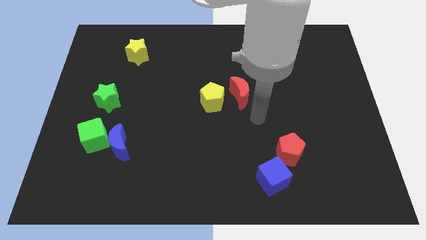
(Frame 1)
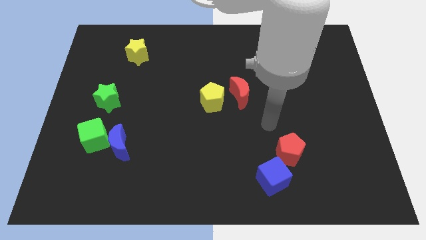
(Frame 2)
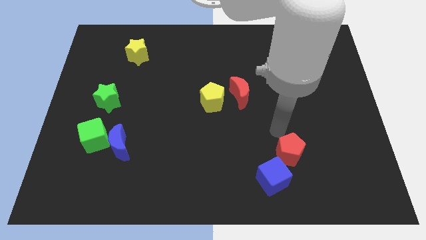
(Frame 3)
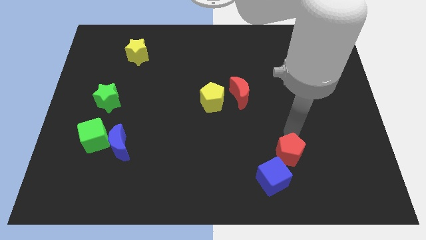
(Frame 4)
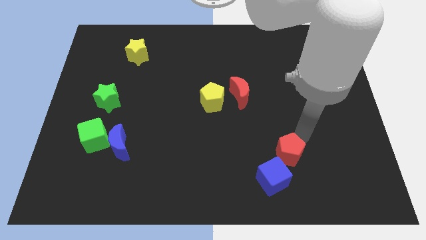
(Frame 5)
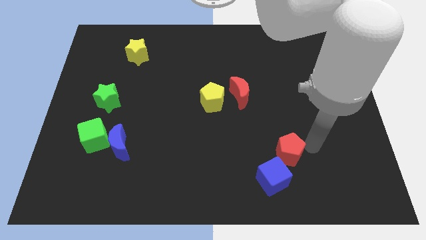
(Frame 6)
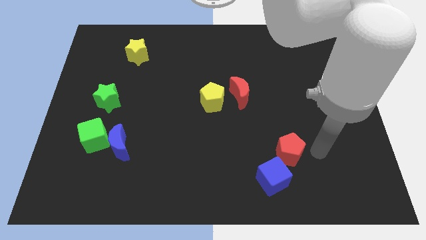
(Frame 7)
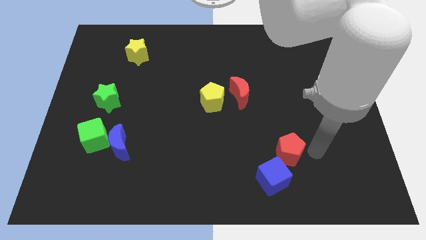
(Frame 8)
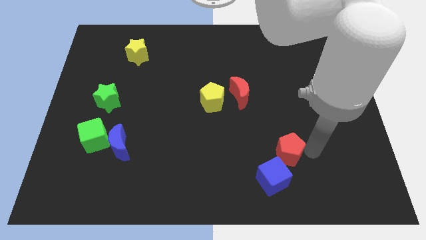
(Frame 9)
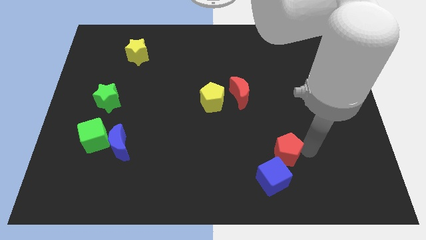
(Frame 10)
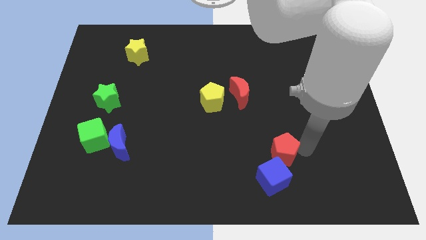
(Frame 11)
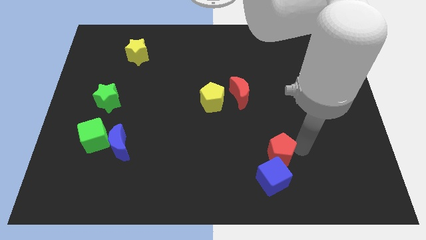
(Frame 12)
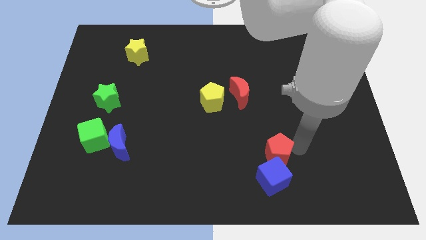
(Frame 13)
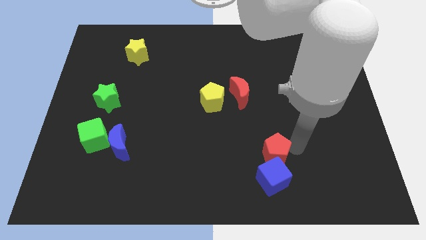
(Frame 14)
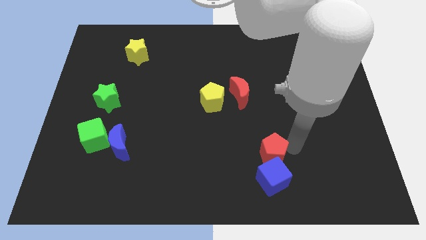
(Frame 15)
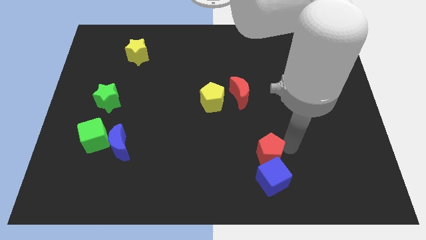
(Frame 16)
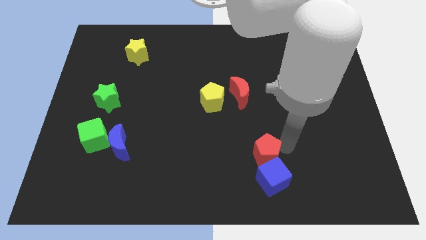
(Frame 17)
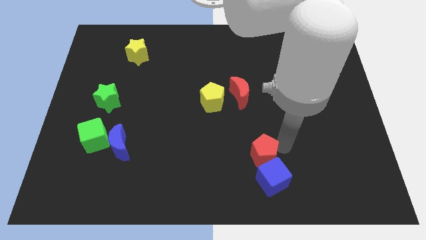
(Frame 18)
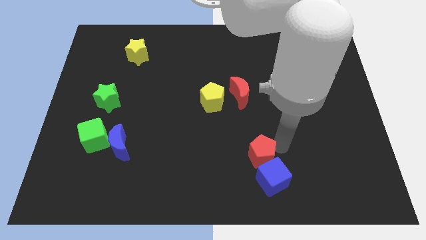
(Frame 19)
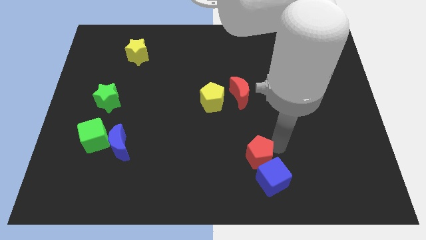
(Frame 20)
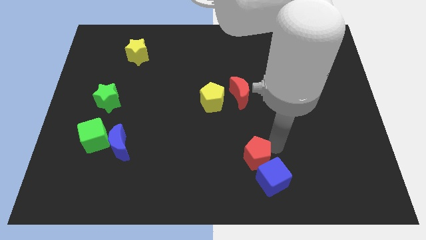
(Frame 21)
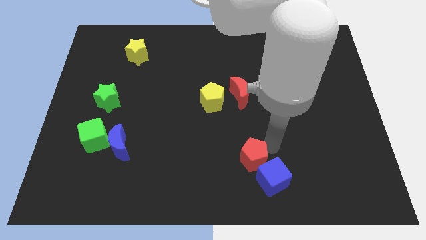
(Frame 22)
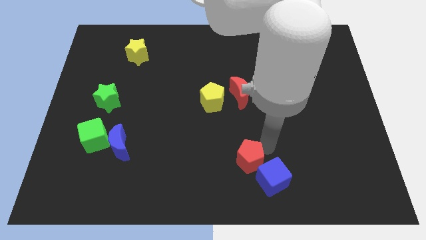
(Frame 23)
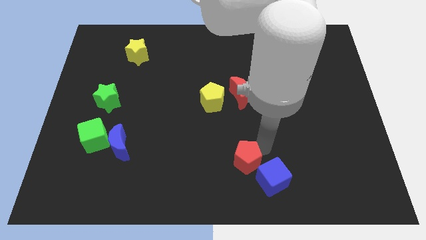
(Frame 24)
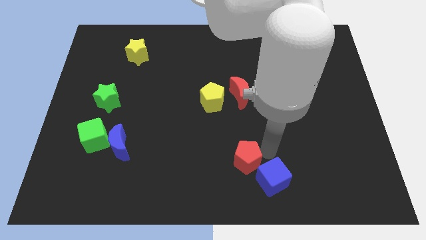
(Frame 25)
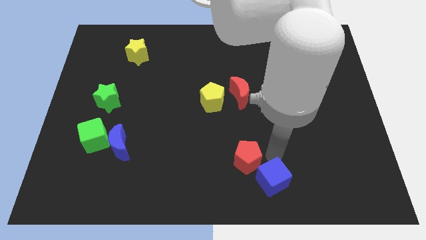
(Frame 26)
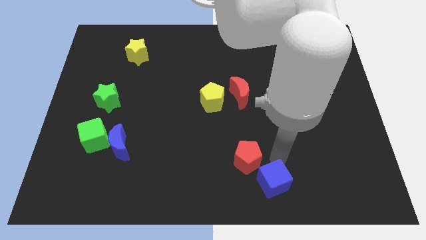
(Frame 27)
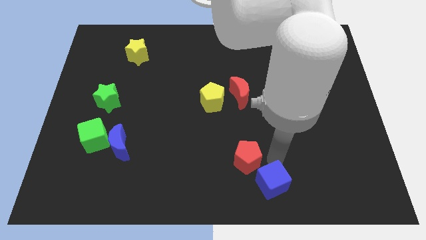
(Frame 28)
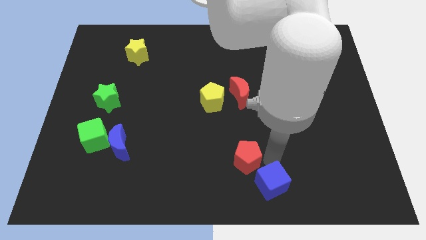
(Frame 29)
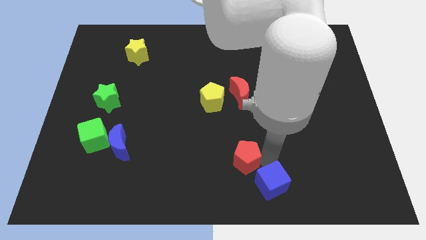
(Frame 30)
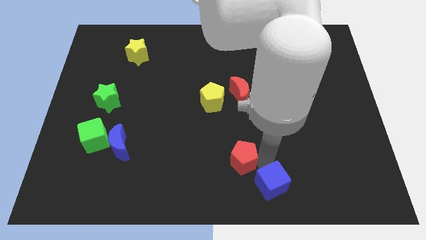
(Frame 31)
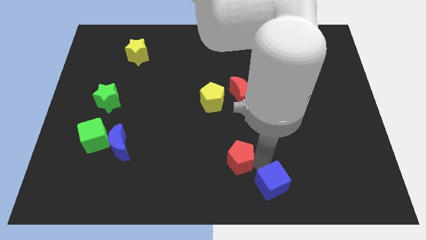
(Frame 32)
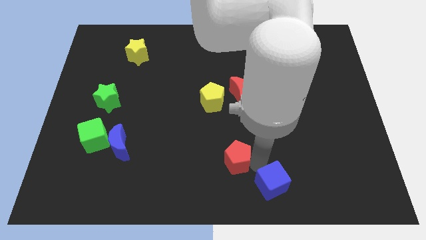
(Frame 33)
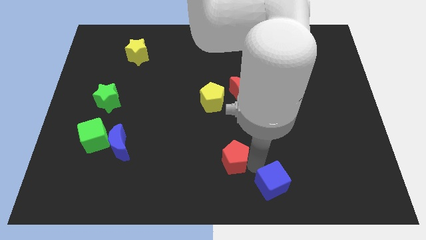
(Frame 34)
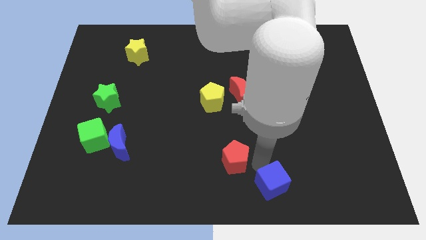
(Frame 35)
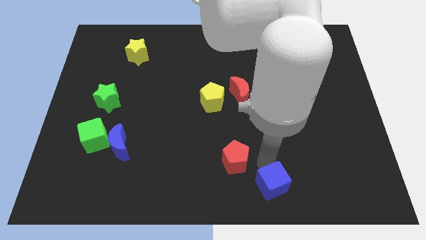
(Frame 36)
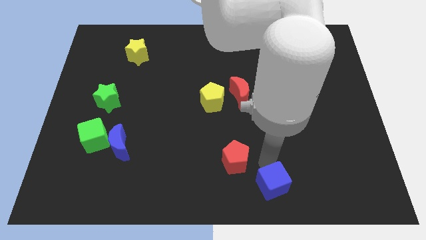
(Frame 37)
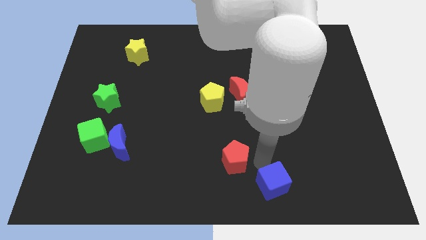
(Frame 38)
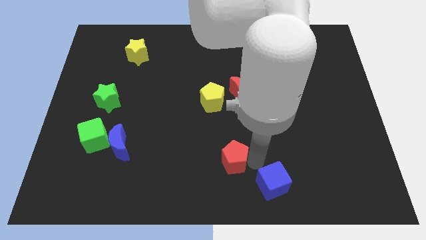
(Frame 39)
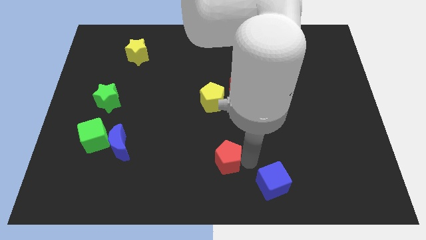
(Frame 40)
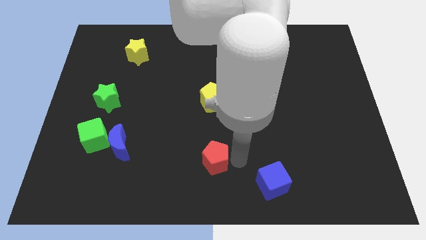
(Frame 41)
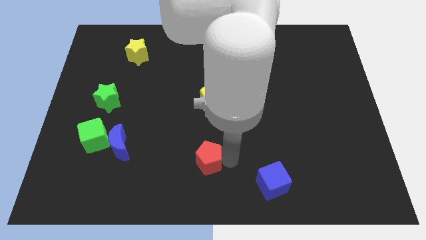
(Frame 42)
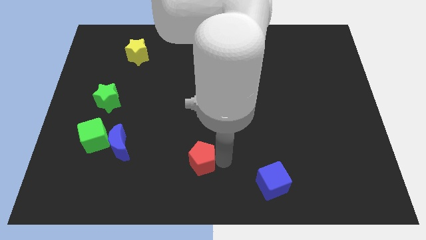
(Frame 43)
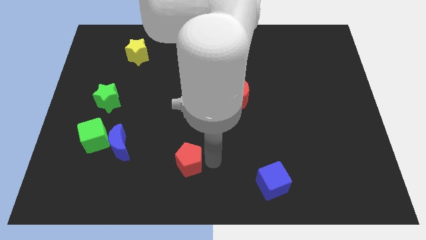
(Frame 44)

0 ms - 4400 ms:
move the red pentagon to the left

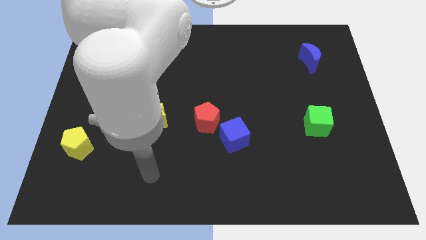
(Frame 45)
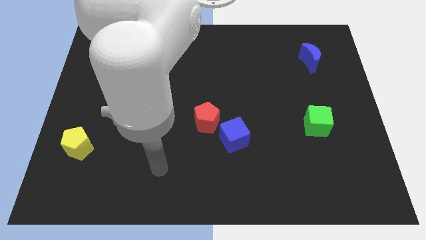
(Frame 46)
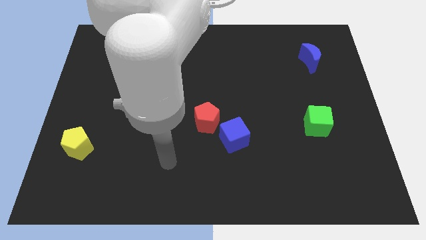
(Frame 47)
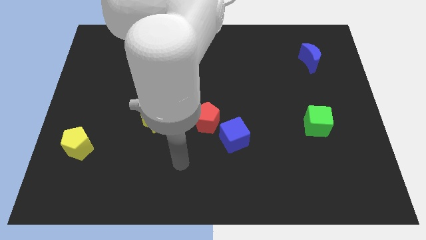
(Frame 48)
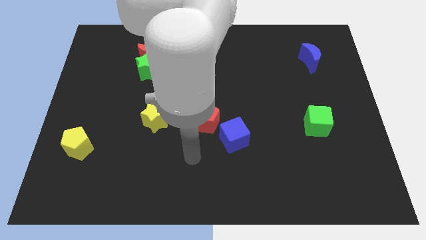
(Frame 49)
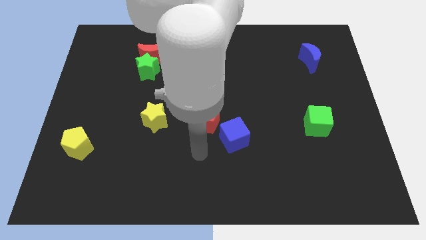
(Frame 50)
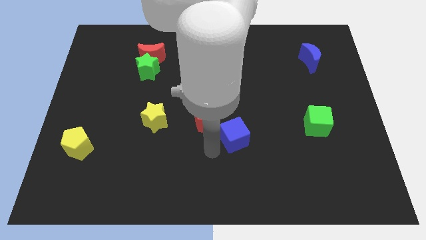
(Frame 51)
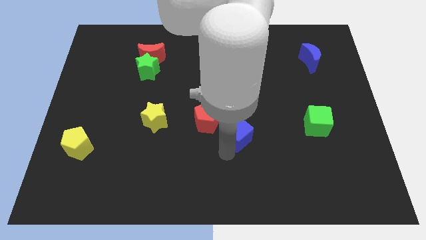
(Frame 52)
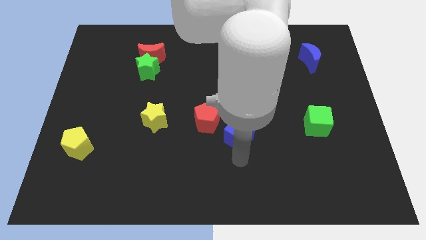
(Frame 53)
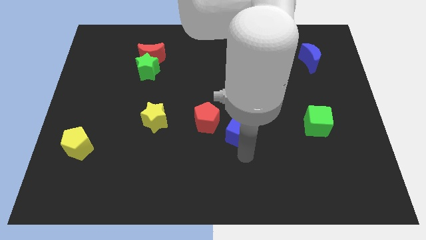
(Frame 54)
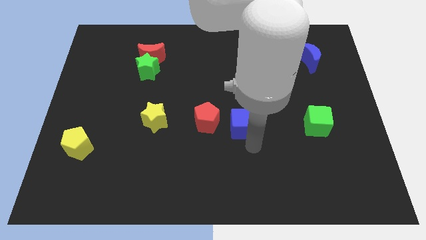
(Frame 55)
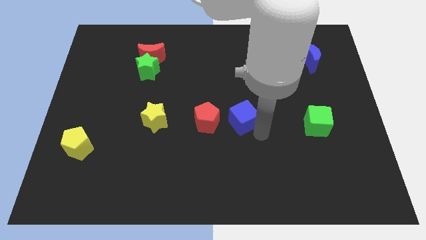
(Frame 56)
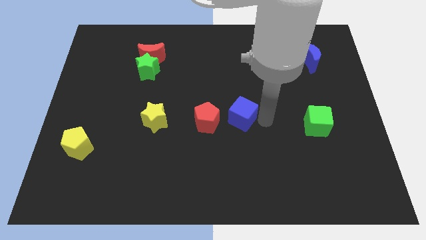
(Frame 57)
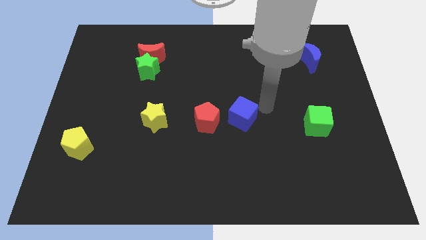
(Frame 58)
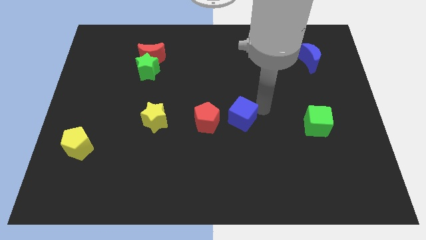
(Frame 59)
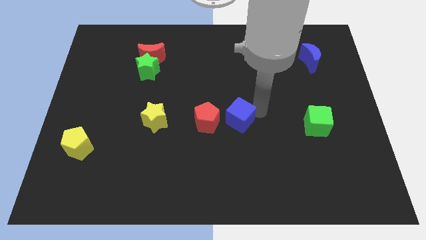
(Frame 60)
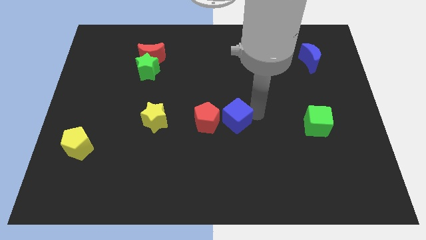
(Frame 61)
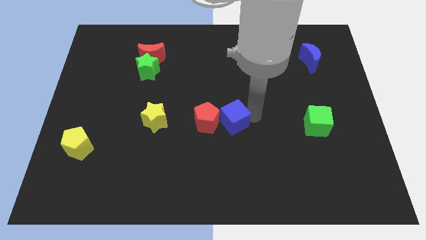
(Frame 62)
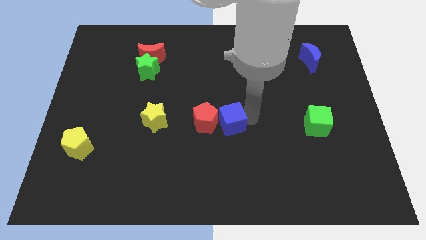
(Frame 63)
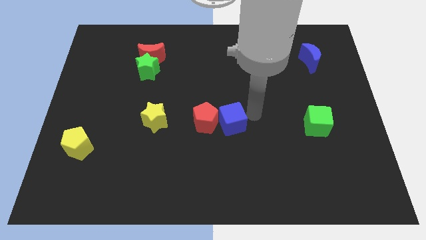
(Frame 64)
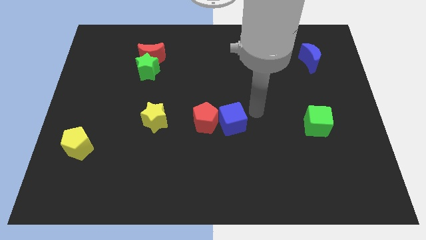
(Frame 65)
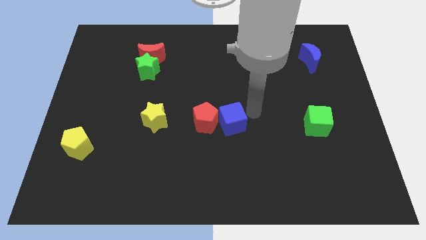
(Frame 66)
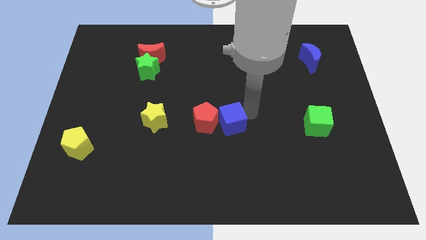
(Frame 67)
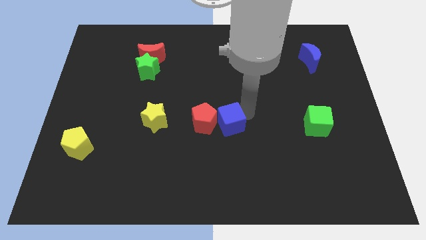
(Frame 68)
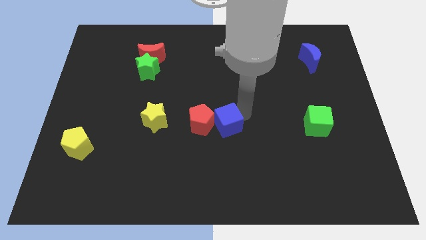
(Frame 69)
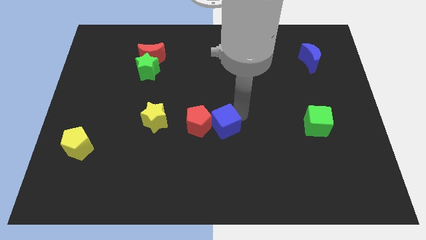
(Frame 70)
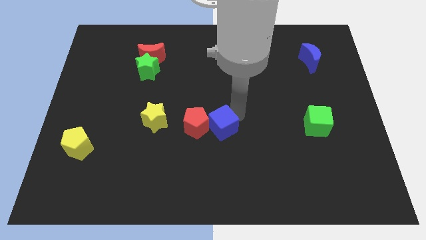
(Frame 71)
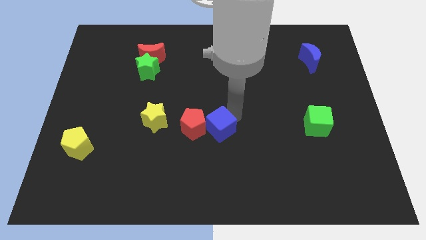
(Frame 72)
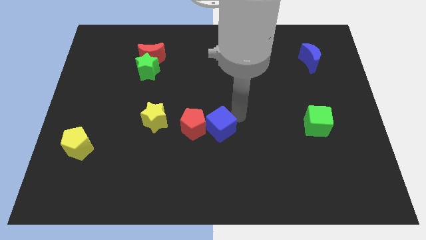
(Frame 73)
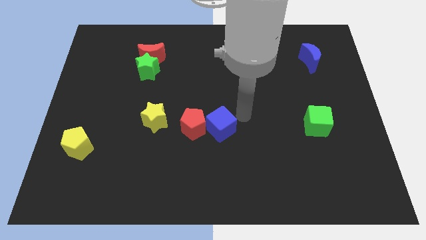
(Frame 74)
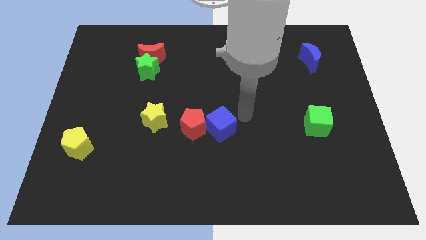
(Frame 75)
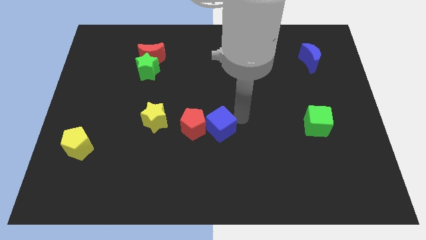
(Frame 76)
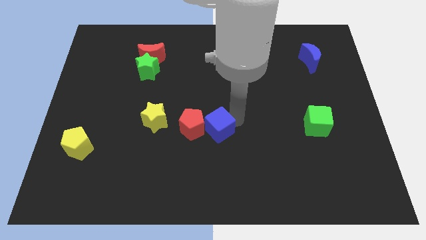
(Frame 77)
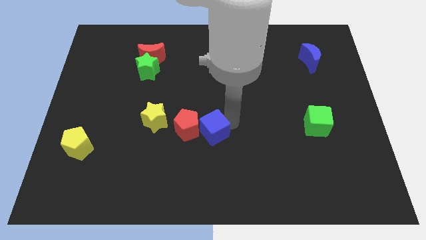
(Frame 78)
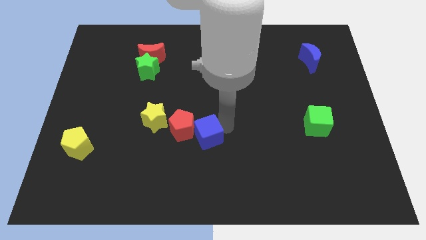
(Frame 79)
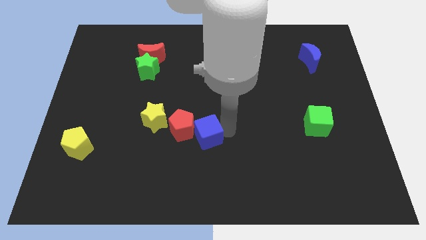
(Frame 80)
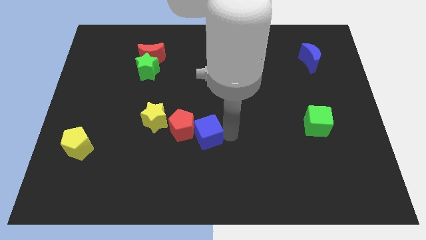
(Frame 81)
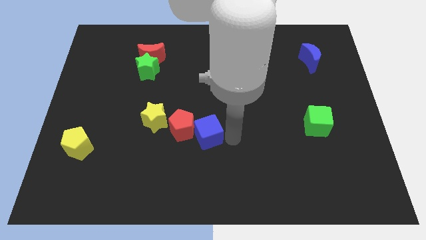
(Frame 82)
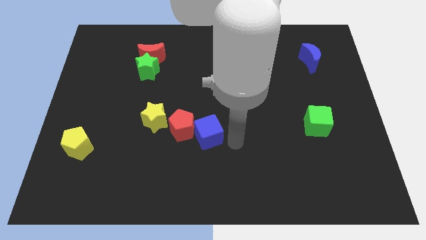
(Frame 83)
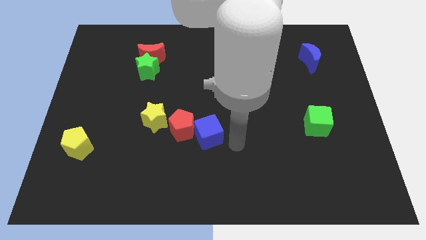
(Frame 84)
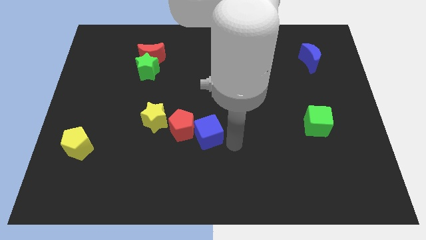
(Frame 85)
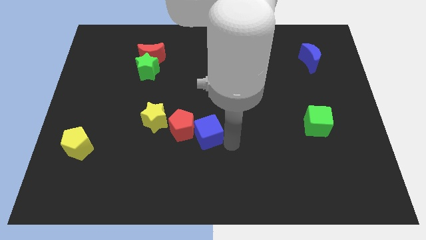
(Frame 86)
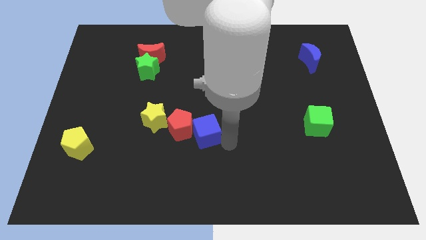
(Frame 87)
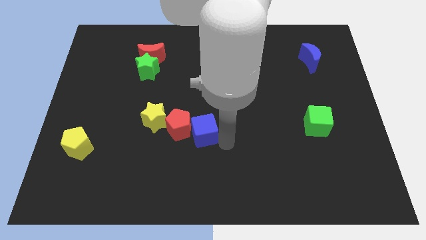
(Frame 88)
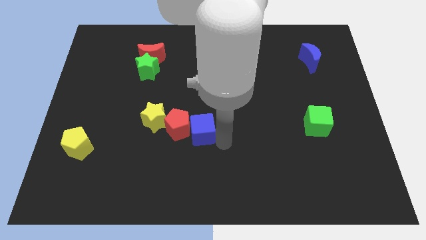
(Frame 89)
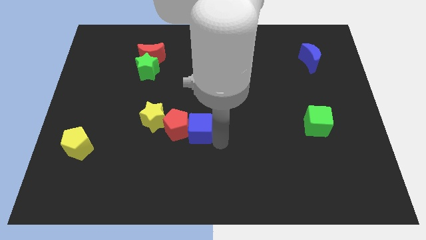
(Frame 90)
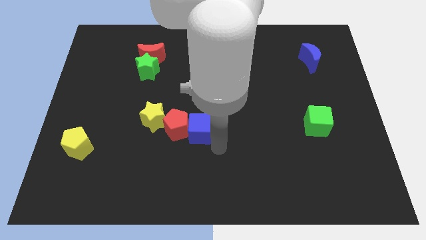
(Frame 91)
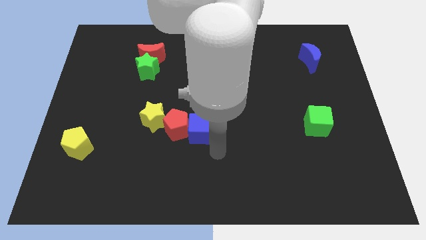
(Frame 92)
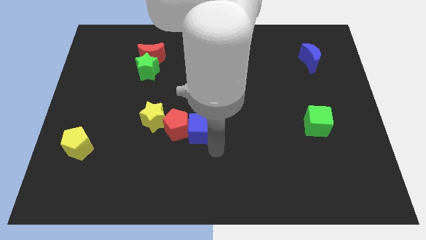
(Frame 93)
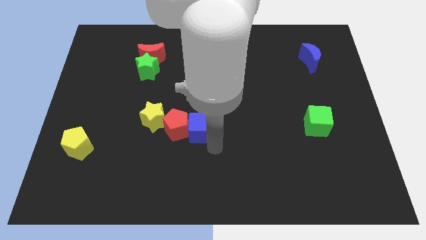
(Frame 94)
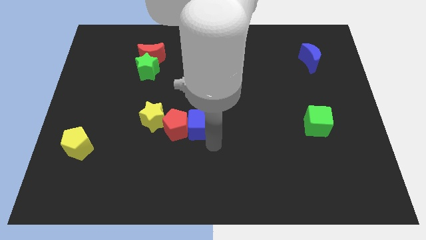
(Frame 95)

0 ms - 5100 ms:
slide the blue cube upwards and to the left diagonally slightly
